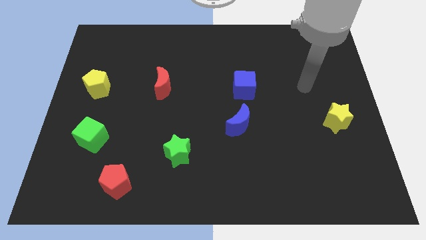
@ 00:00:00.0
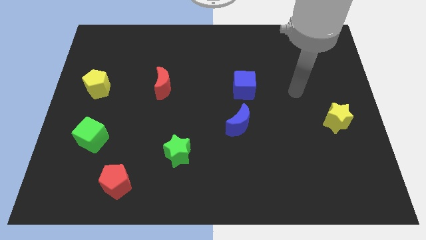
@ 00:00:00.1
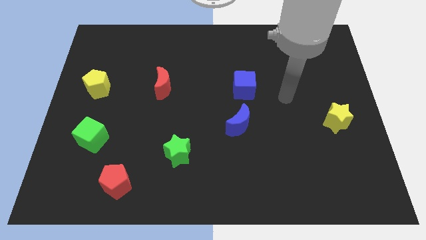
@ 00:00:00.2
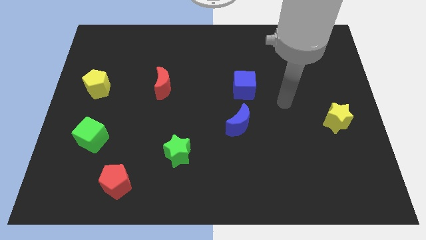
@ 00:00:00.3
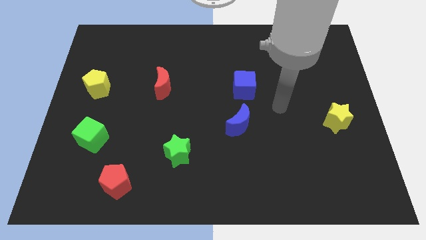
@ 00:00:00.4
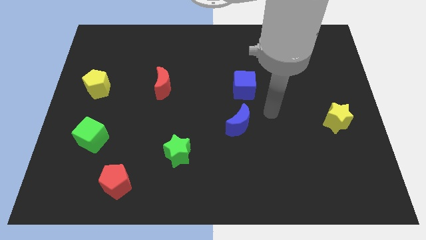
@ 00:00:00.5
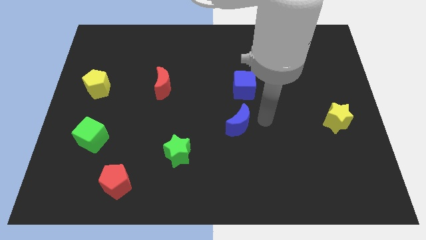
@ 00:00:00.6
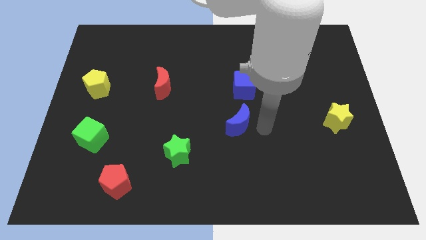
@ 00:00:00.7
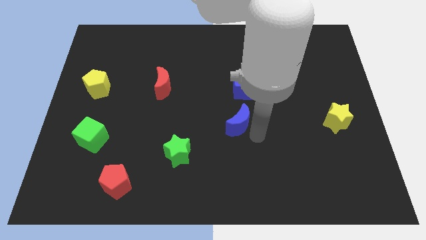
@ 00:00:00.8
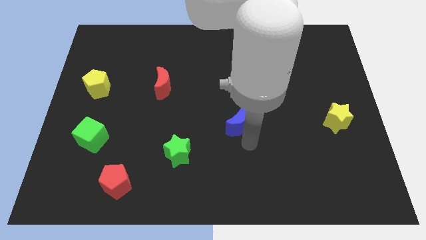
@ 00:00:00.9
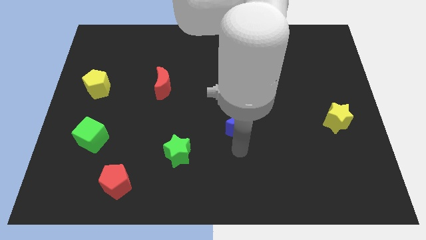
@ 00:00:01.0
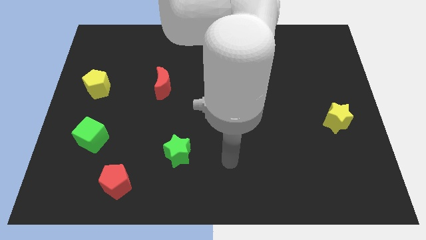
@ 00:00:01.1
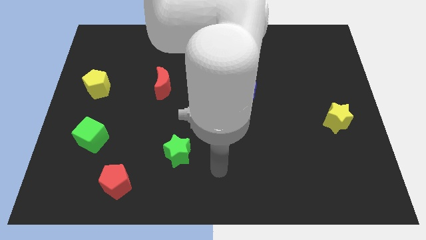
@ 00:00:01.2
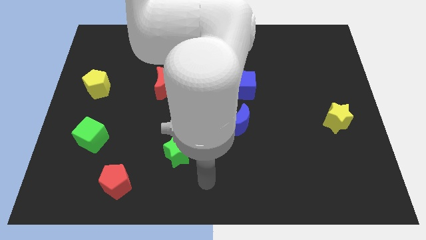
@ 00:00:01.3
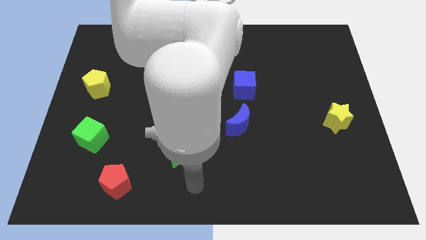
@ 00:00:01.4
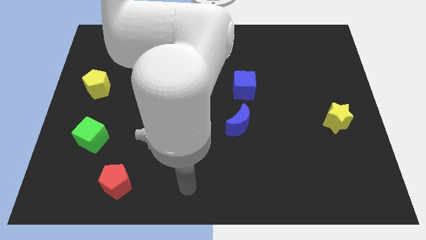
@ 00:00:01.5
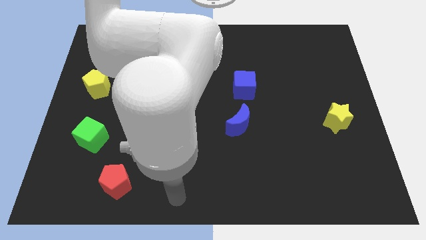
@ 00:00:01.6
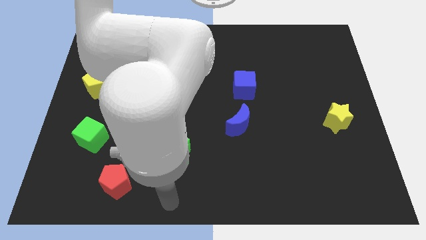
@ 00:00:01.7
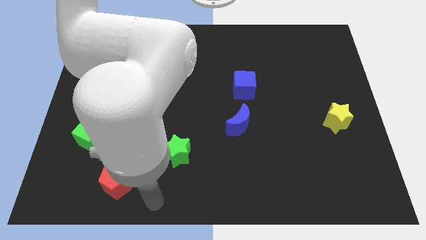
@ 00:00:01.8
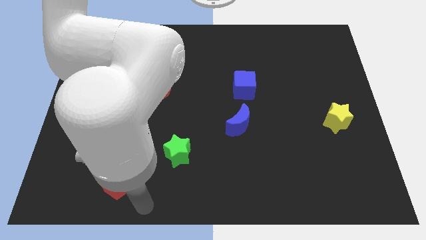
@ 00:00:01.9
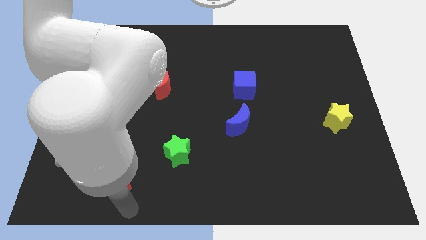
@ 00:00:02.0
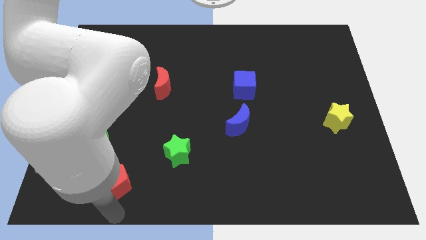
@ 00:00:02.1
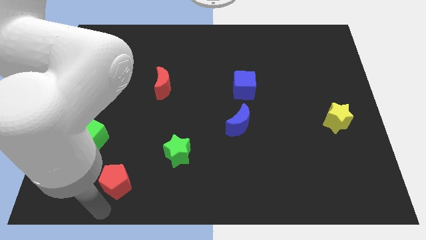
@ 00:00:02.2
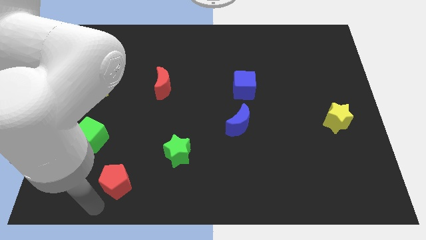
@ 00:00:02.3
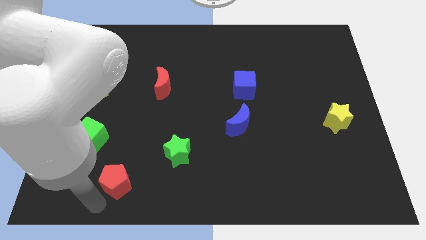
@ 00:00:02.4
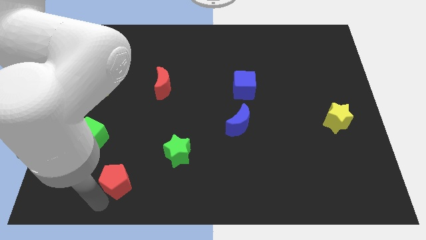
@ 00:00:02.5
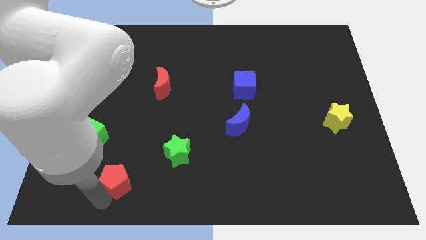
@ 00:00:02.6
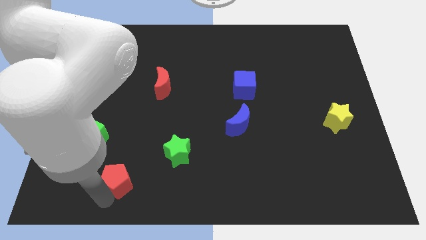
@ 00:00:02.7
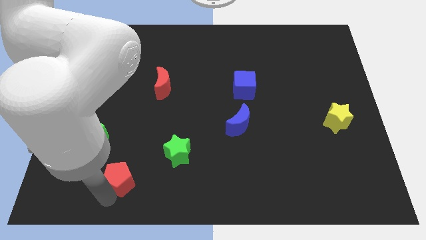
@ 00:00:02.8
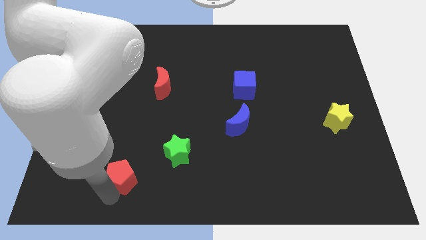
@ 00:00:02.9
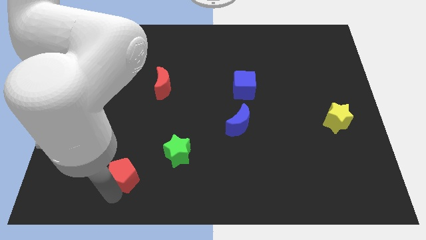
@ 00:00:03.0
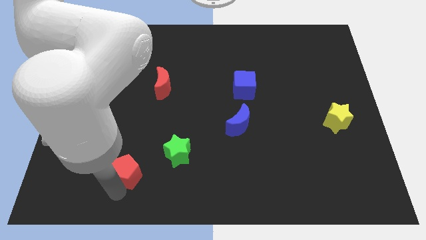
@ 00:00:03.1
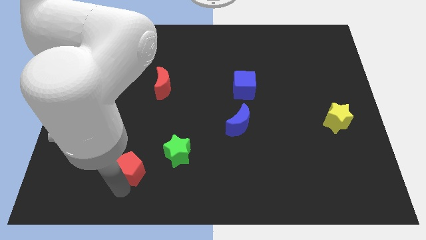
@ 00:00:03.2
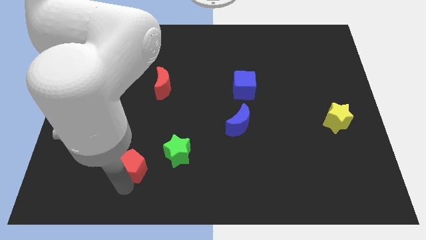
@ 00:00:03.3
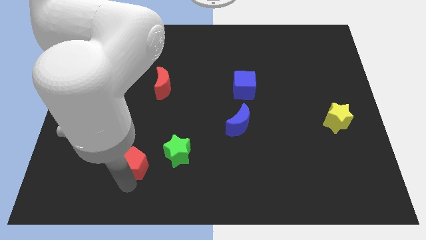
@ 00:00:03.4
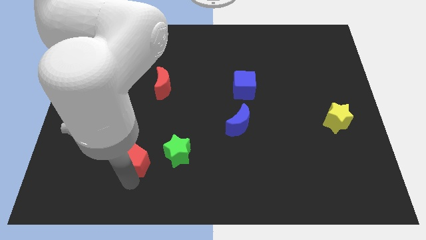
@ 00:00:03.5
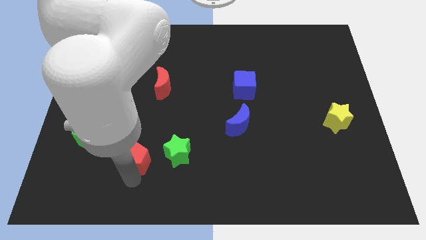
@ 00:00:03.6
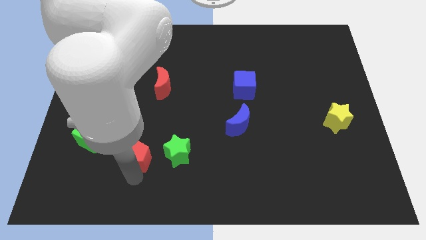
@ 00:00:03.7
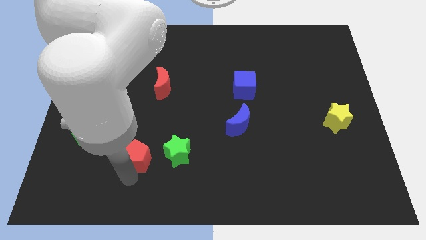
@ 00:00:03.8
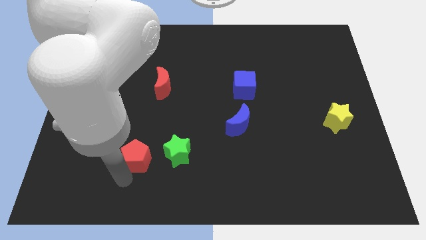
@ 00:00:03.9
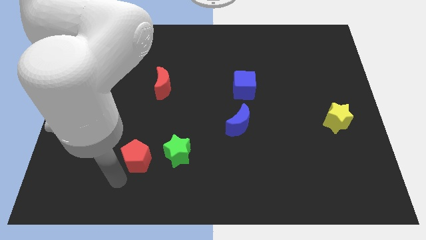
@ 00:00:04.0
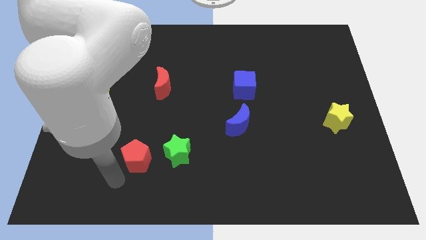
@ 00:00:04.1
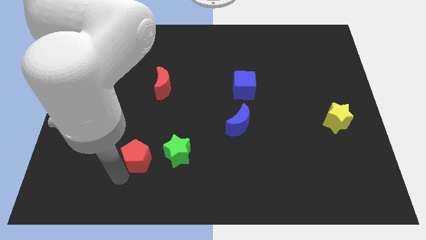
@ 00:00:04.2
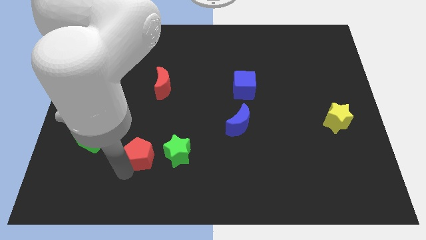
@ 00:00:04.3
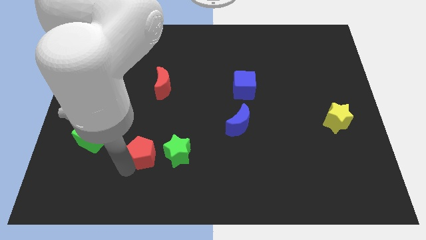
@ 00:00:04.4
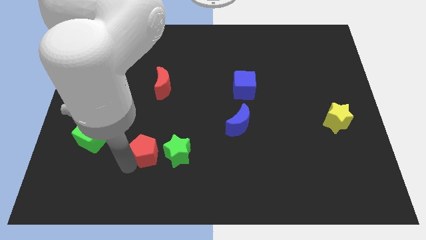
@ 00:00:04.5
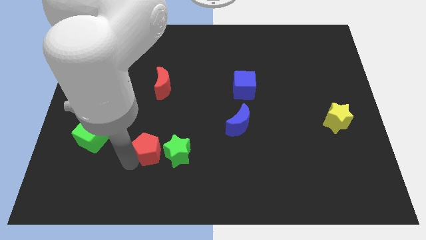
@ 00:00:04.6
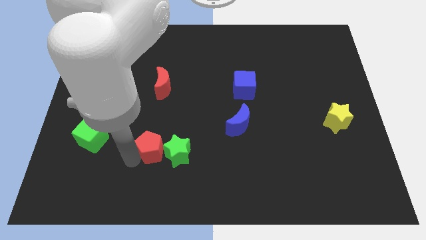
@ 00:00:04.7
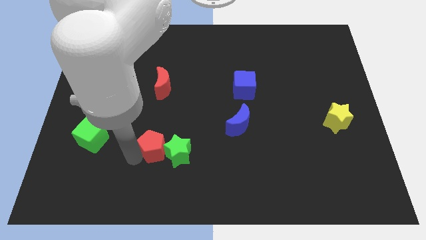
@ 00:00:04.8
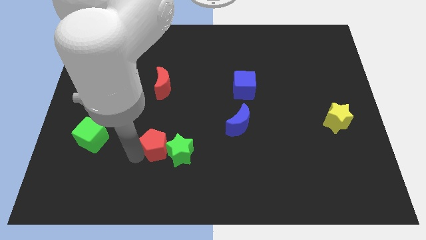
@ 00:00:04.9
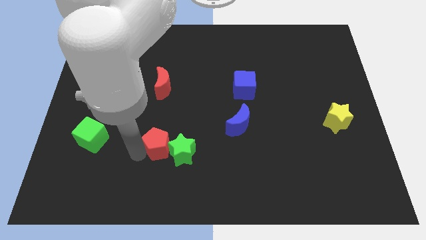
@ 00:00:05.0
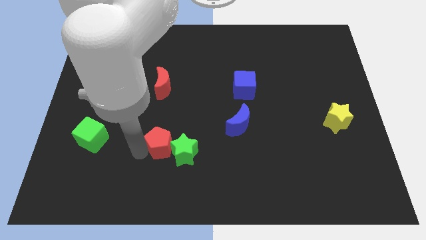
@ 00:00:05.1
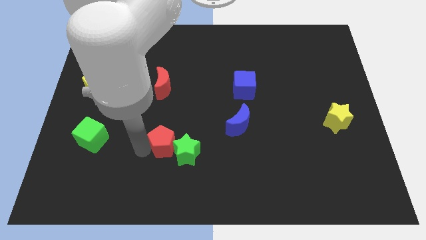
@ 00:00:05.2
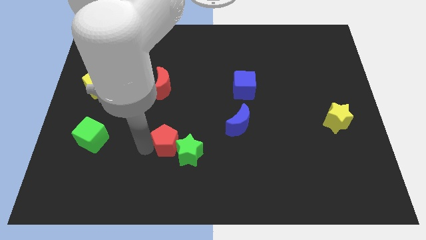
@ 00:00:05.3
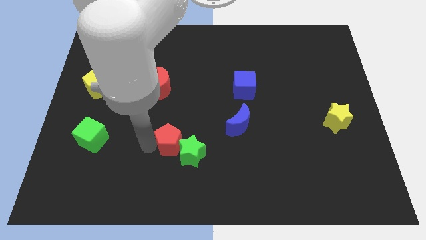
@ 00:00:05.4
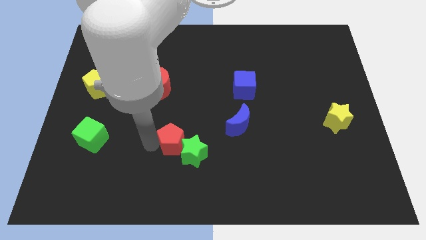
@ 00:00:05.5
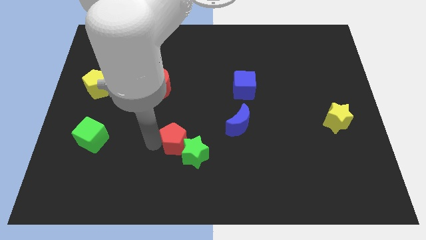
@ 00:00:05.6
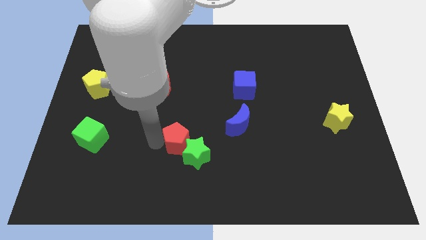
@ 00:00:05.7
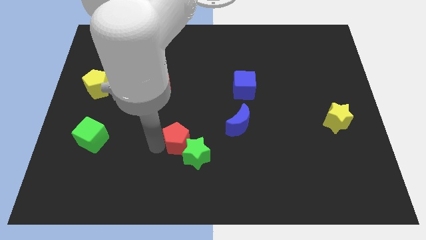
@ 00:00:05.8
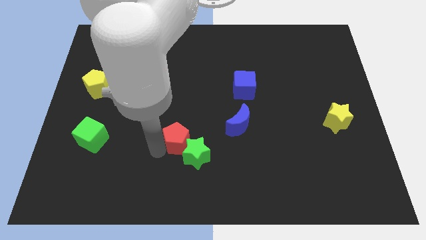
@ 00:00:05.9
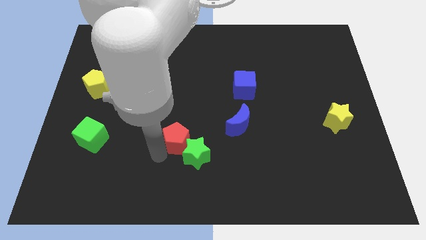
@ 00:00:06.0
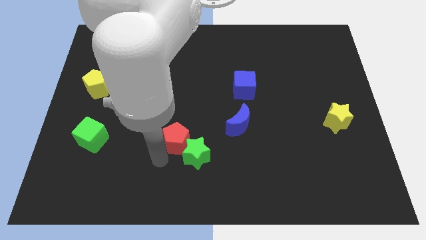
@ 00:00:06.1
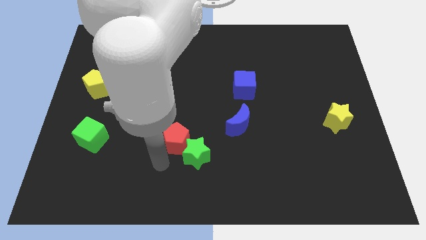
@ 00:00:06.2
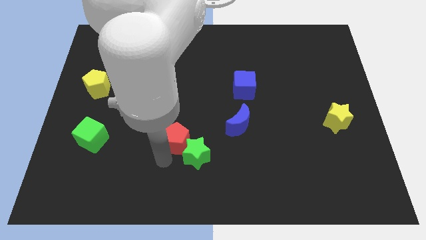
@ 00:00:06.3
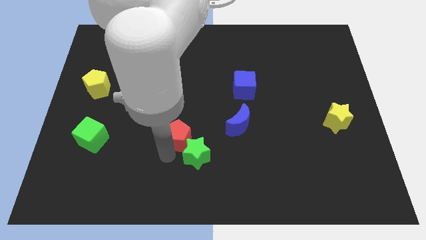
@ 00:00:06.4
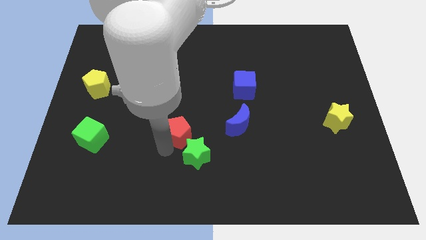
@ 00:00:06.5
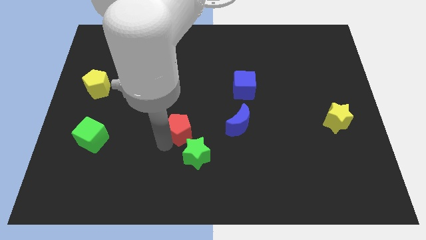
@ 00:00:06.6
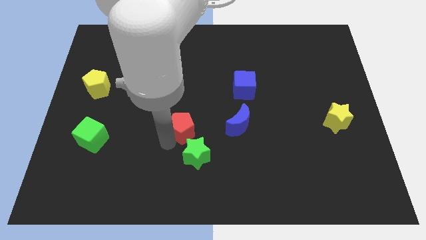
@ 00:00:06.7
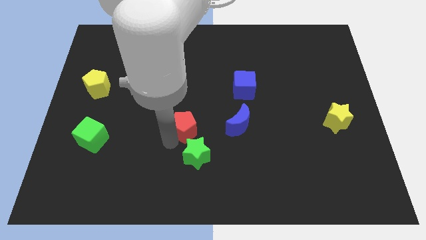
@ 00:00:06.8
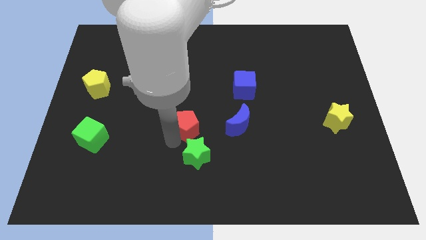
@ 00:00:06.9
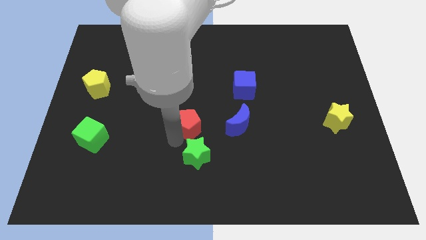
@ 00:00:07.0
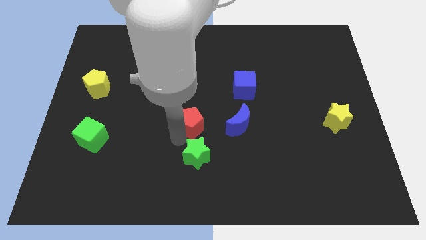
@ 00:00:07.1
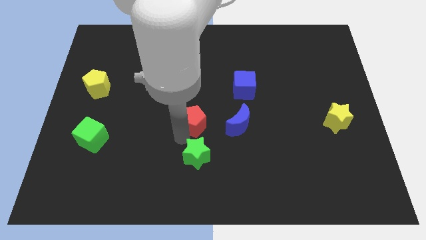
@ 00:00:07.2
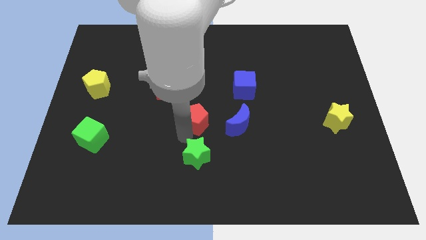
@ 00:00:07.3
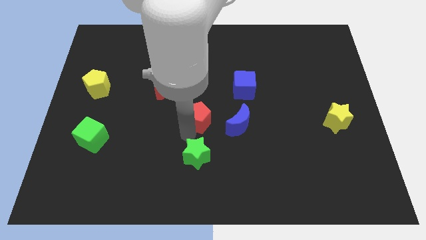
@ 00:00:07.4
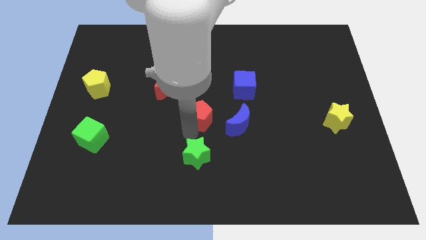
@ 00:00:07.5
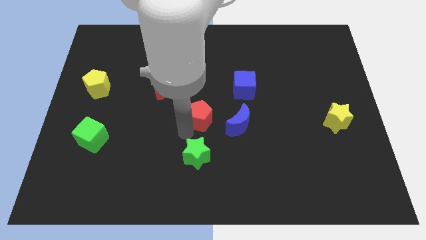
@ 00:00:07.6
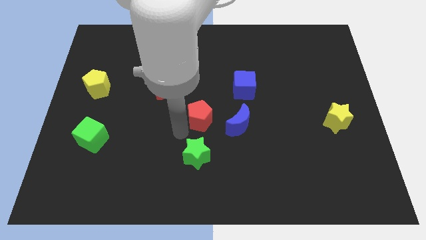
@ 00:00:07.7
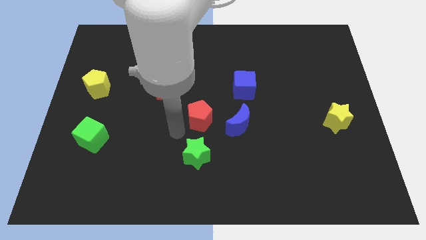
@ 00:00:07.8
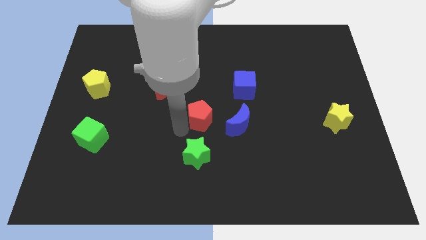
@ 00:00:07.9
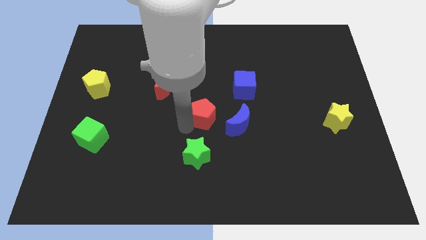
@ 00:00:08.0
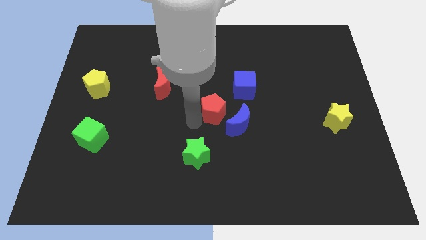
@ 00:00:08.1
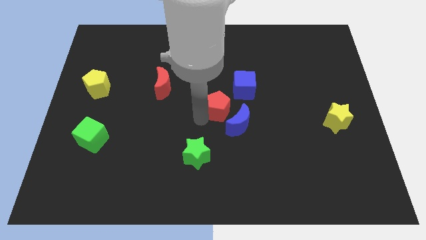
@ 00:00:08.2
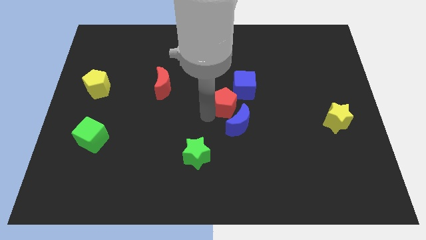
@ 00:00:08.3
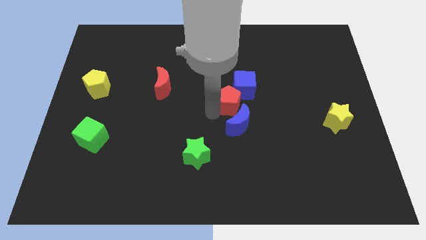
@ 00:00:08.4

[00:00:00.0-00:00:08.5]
slide the red pentagon towards the blue cube
